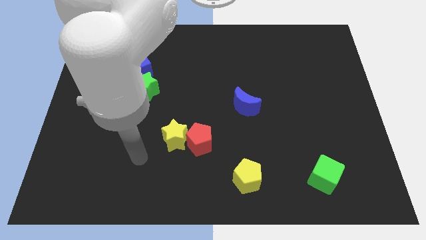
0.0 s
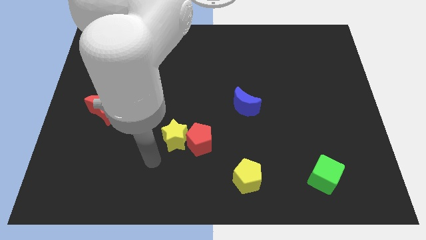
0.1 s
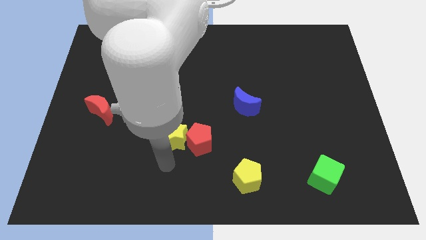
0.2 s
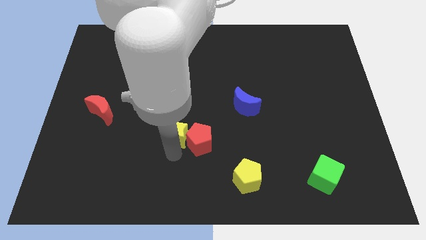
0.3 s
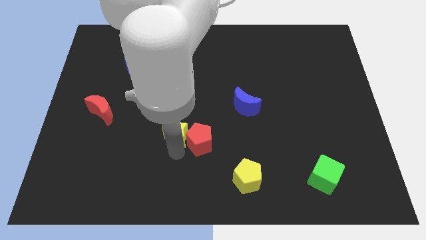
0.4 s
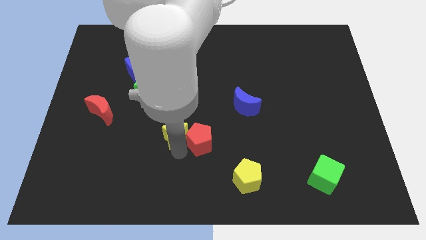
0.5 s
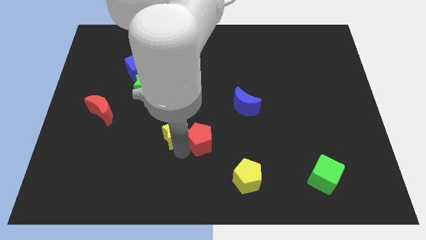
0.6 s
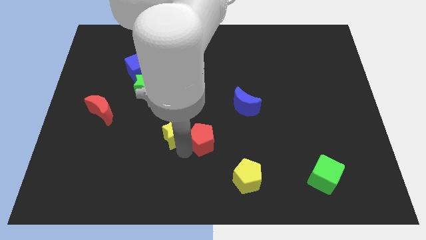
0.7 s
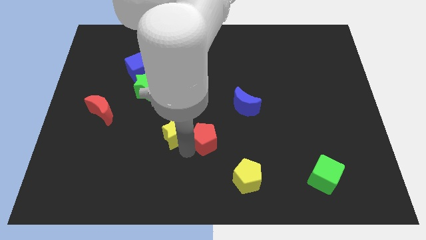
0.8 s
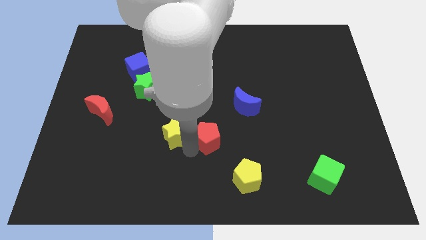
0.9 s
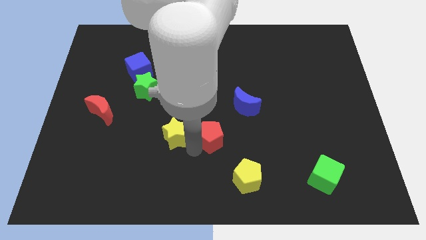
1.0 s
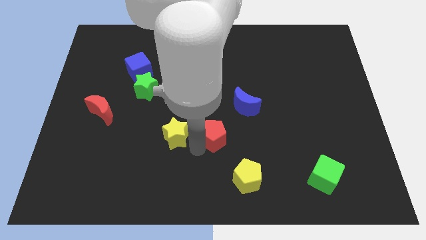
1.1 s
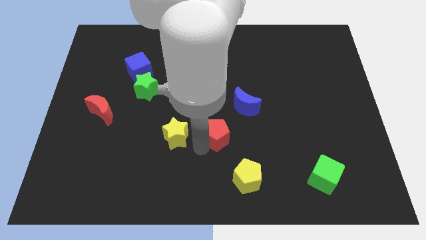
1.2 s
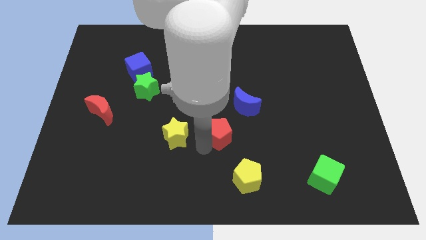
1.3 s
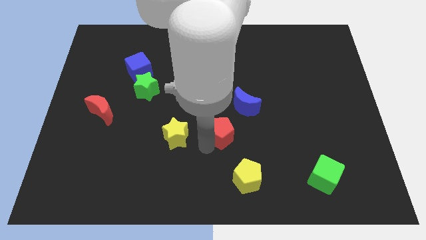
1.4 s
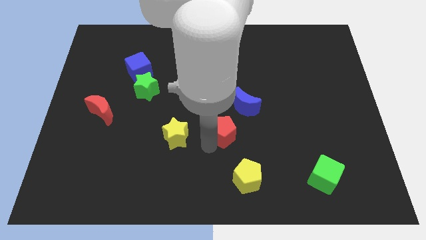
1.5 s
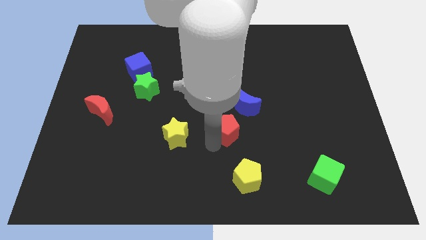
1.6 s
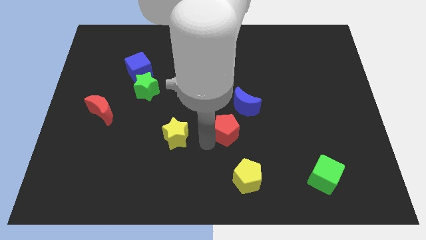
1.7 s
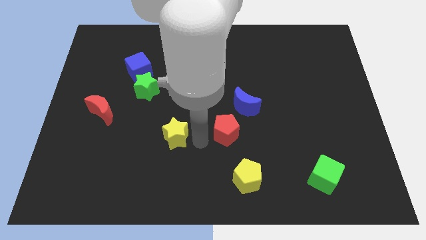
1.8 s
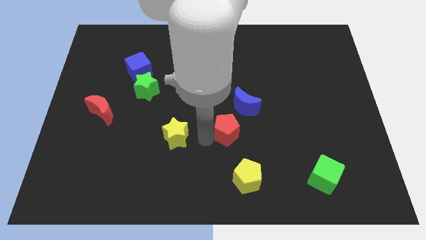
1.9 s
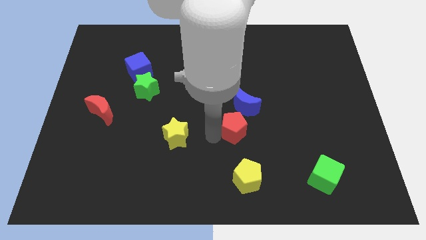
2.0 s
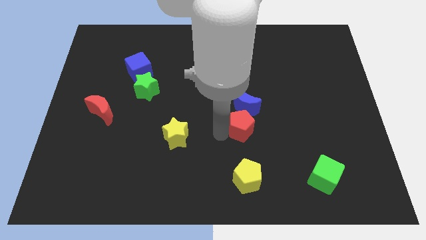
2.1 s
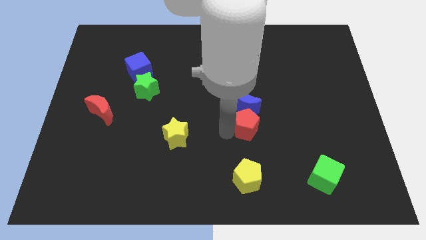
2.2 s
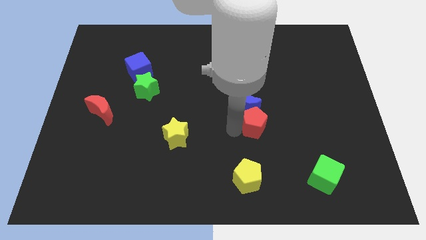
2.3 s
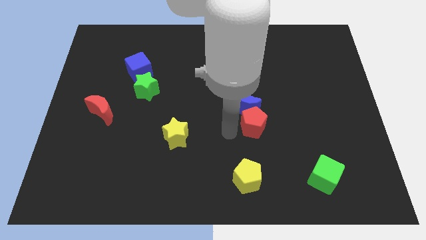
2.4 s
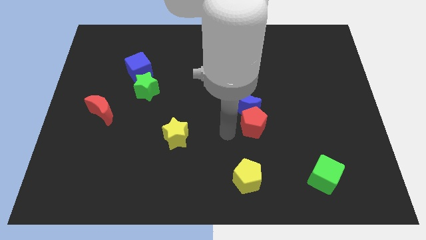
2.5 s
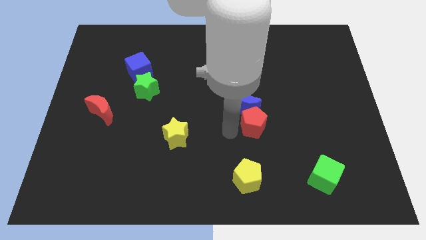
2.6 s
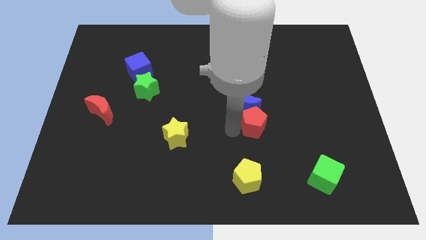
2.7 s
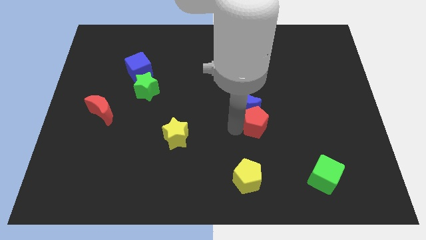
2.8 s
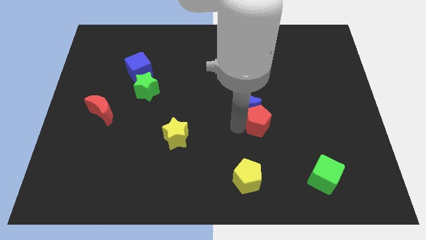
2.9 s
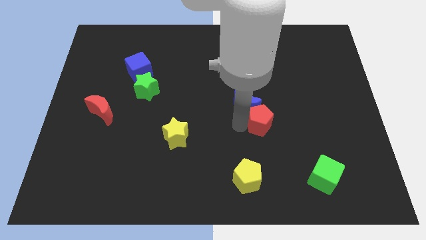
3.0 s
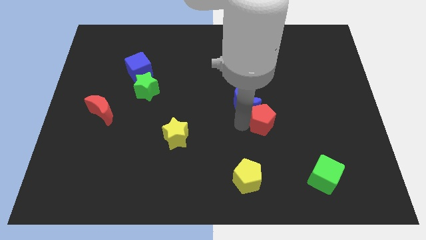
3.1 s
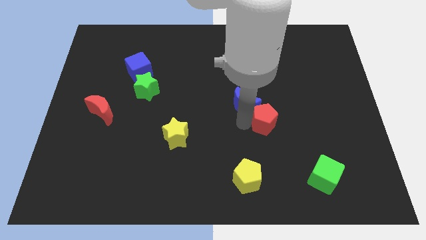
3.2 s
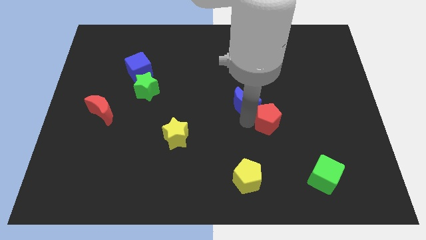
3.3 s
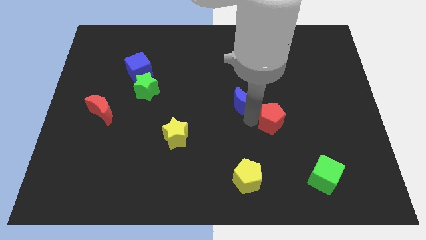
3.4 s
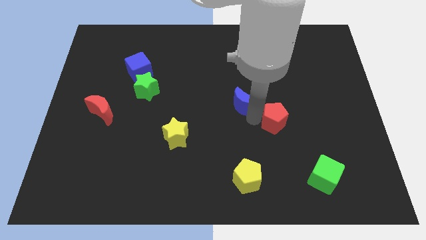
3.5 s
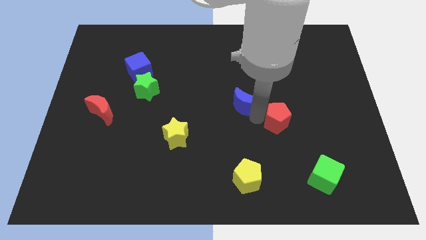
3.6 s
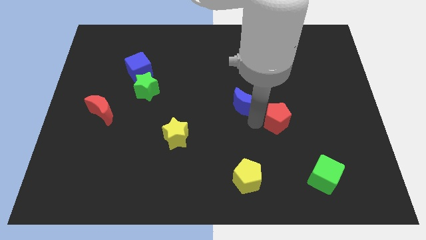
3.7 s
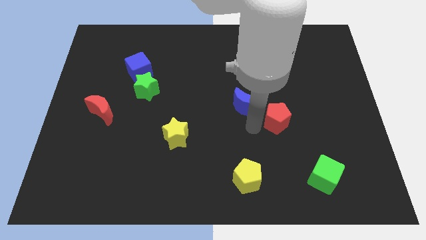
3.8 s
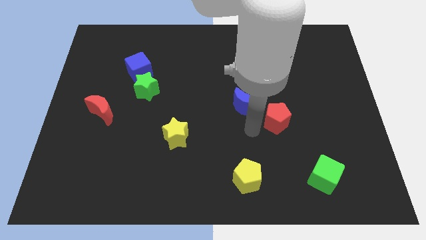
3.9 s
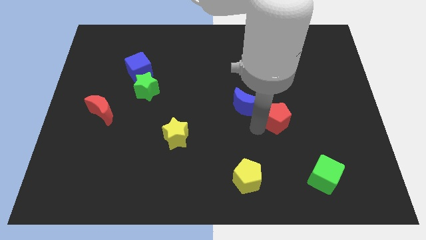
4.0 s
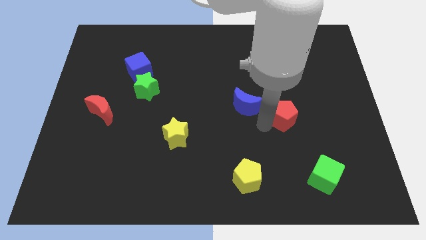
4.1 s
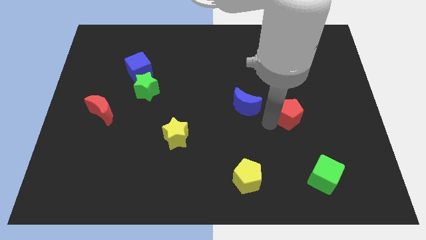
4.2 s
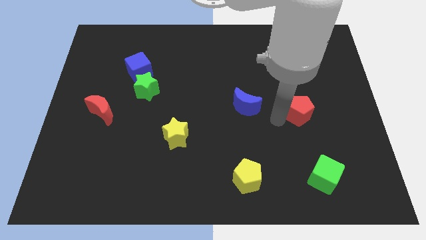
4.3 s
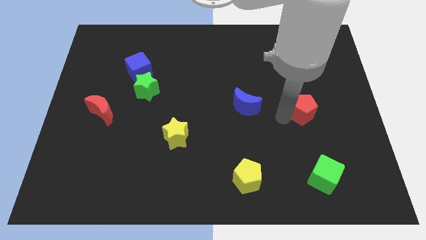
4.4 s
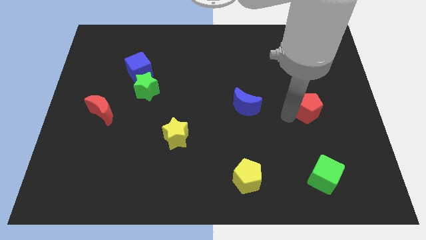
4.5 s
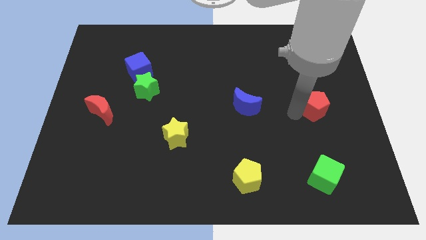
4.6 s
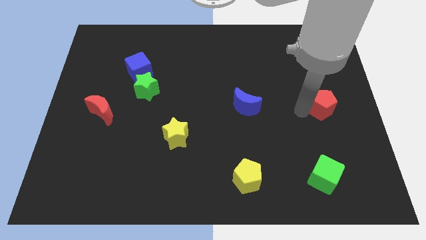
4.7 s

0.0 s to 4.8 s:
move the red pentagon to the right side of the board

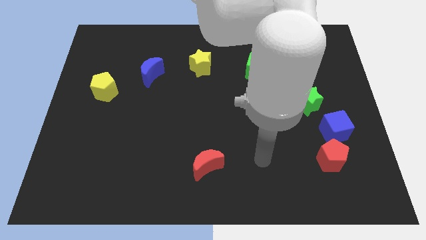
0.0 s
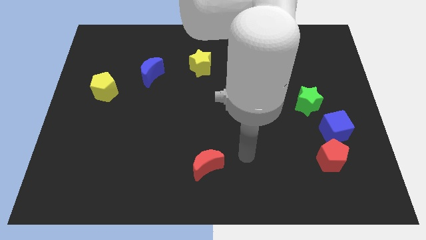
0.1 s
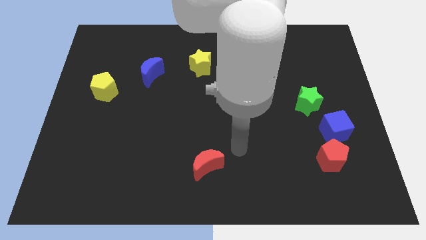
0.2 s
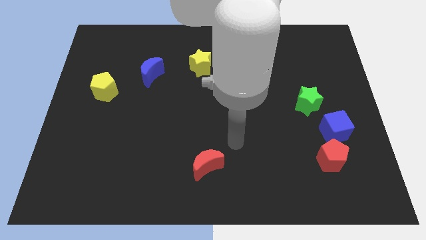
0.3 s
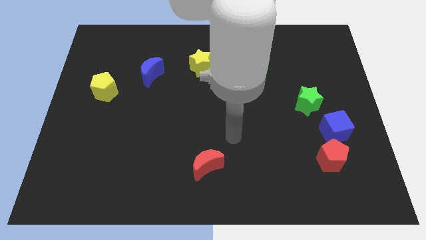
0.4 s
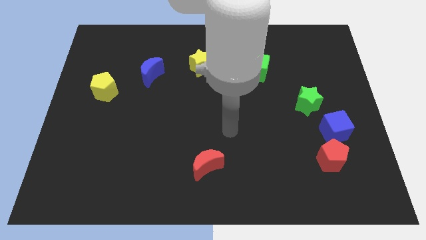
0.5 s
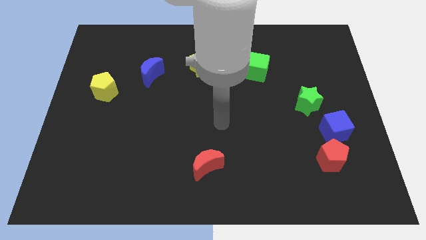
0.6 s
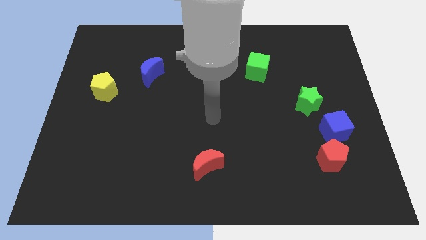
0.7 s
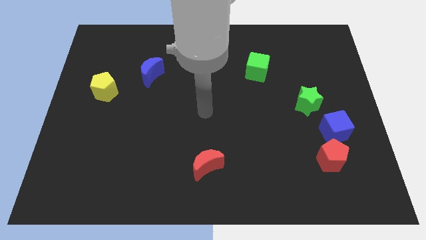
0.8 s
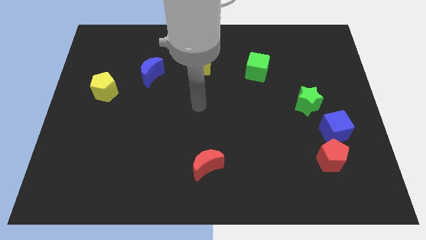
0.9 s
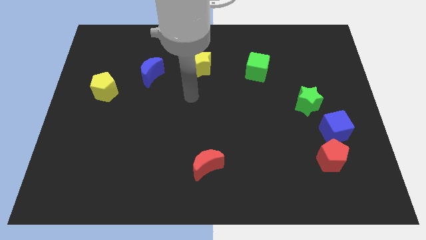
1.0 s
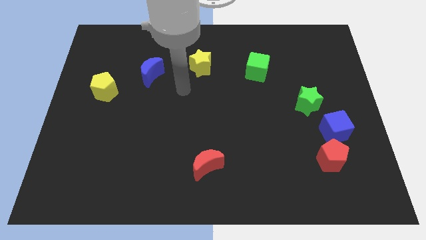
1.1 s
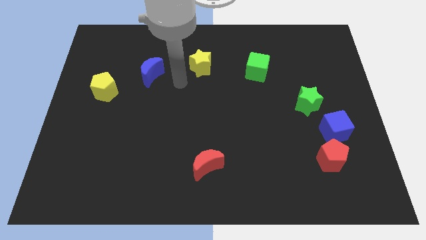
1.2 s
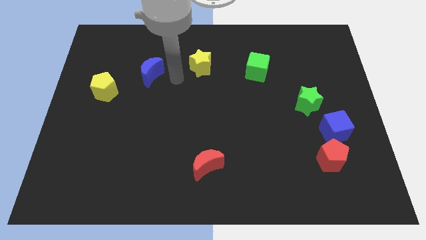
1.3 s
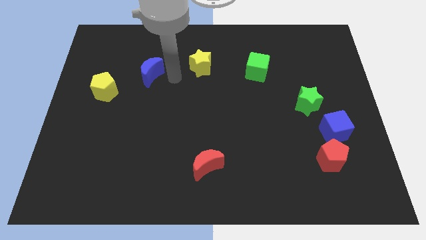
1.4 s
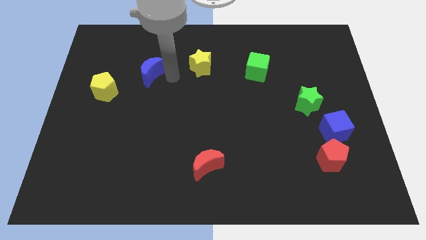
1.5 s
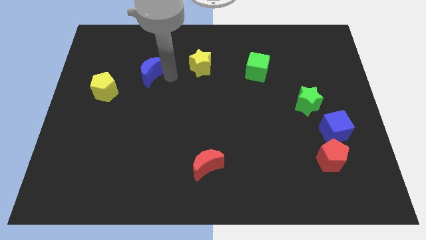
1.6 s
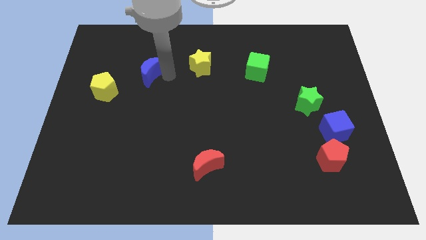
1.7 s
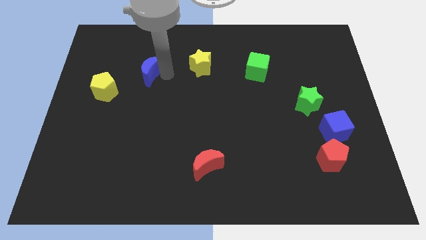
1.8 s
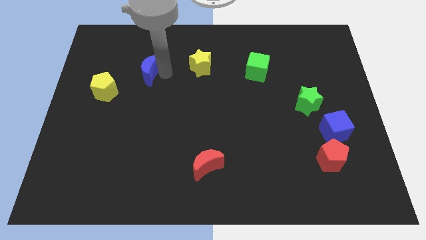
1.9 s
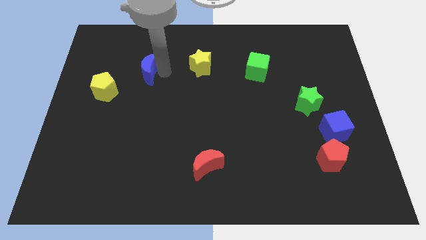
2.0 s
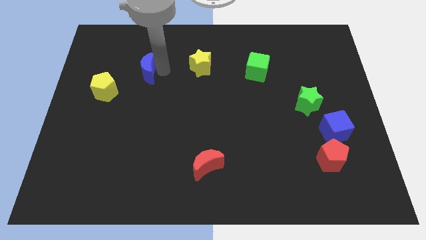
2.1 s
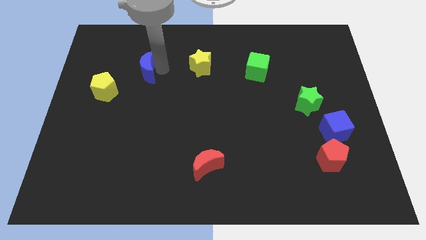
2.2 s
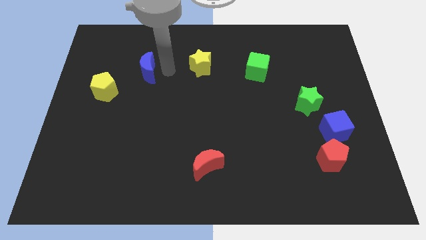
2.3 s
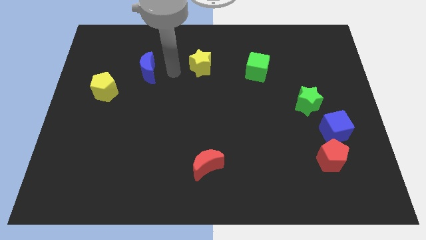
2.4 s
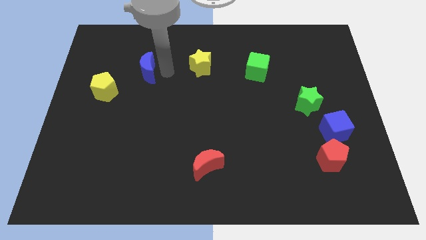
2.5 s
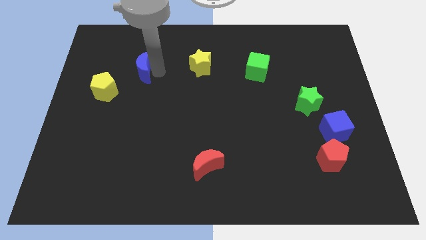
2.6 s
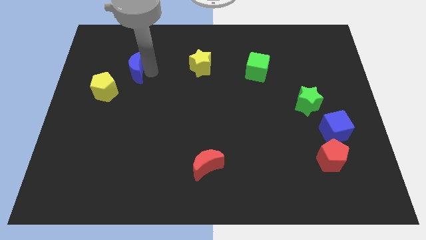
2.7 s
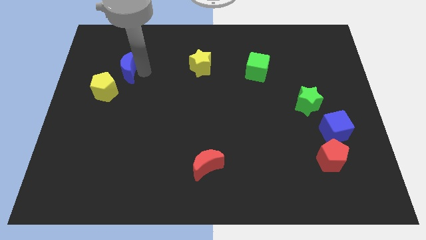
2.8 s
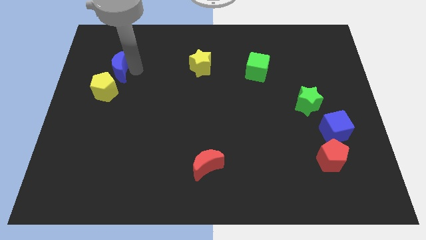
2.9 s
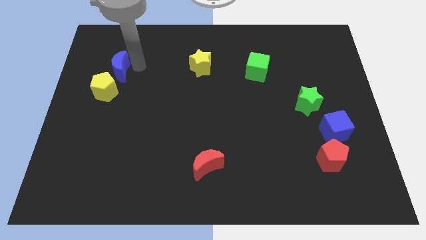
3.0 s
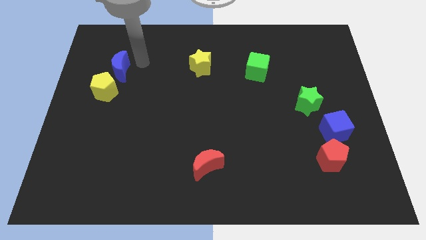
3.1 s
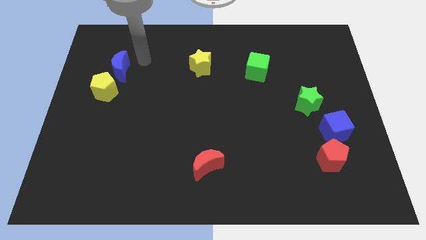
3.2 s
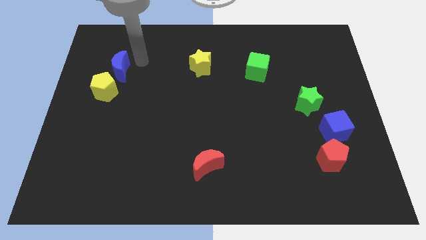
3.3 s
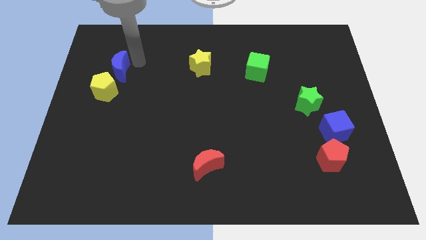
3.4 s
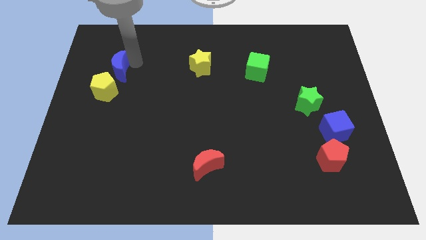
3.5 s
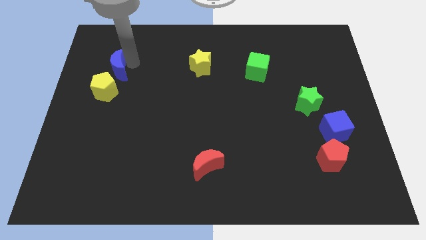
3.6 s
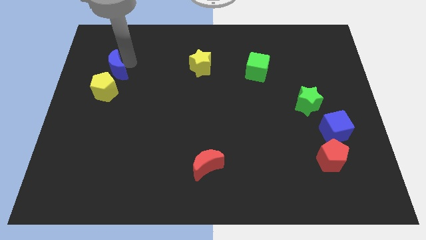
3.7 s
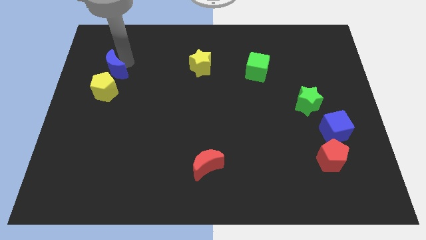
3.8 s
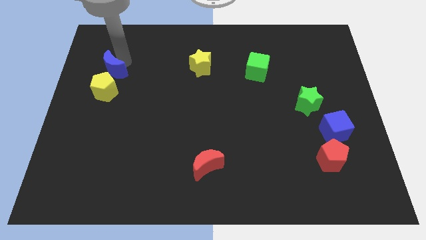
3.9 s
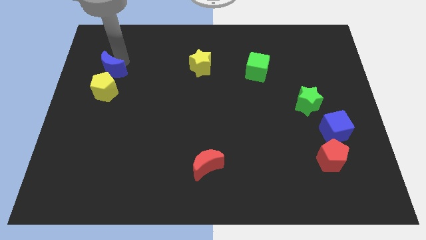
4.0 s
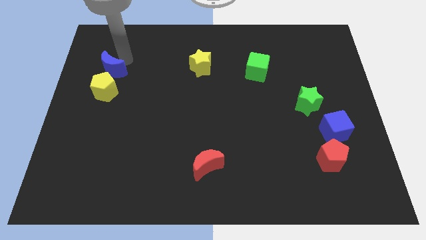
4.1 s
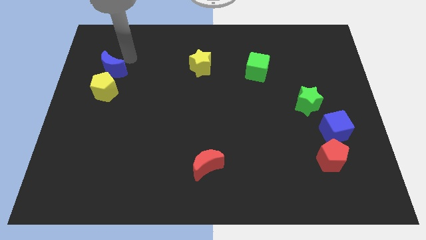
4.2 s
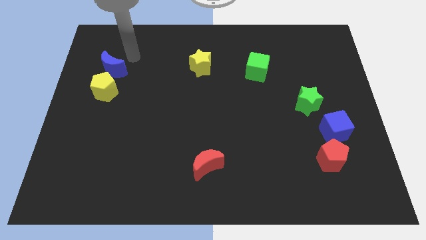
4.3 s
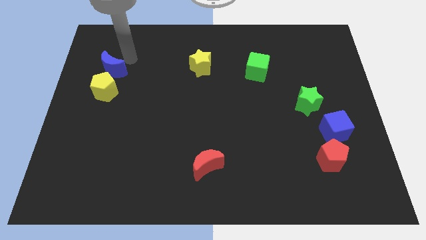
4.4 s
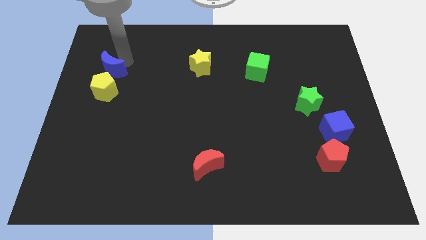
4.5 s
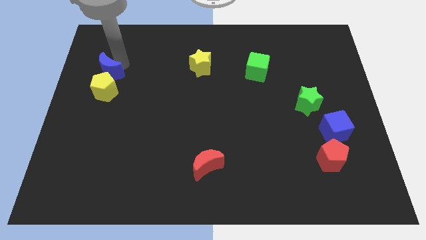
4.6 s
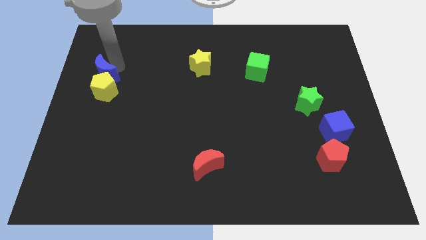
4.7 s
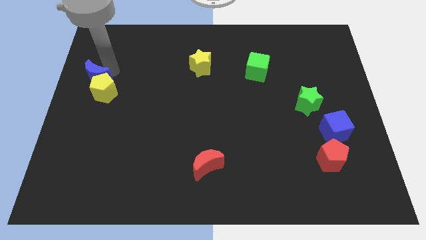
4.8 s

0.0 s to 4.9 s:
move the blue moon to the center left
